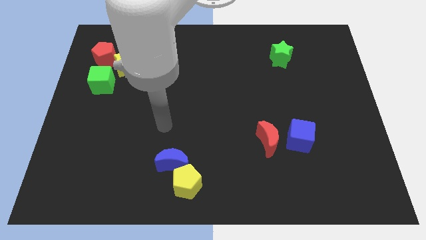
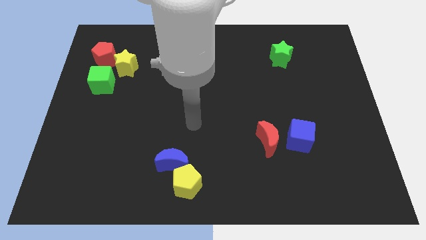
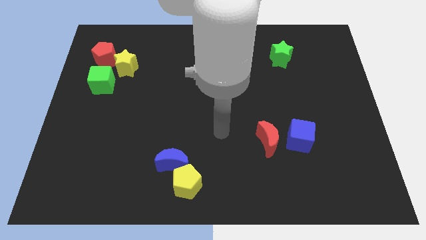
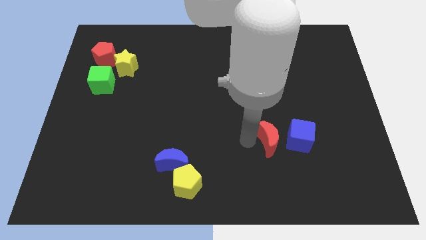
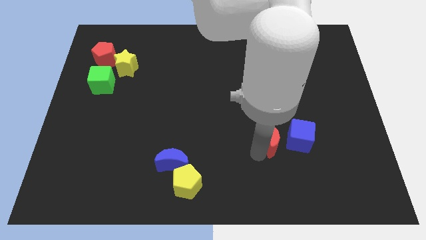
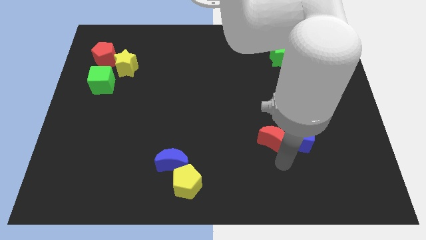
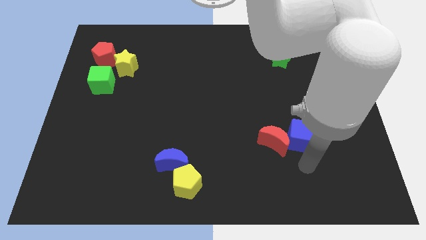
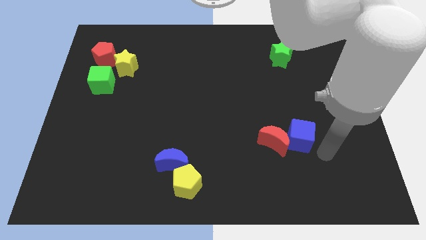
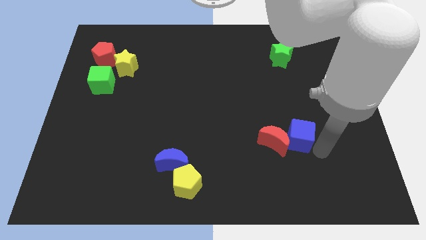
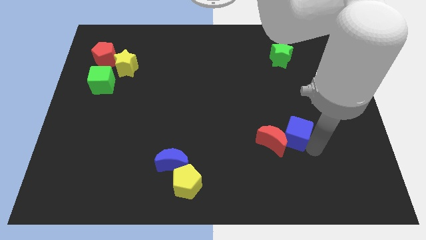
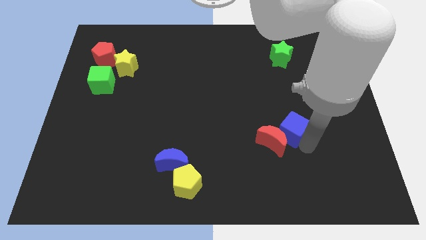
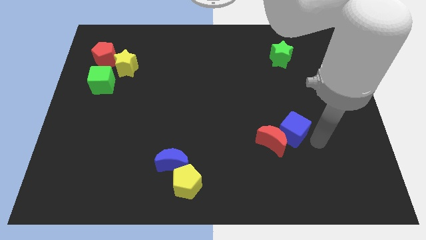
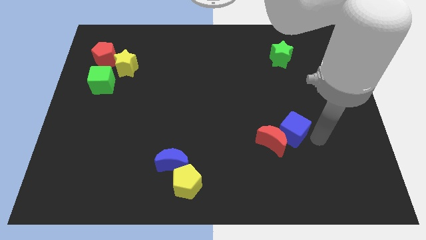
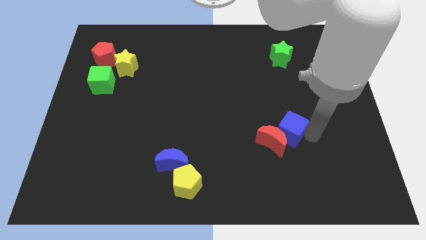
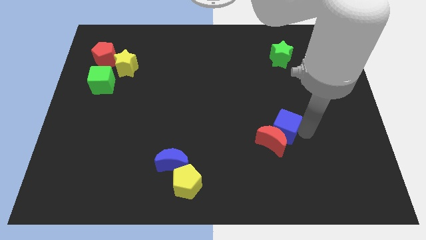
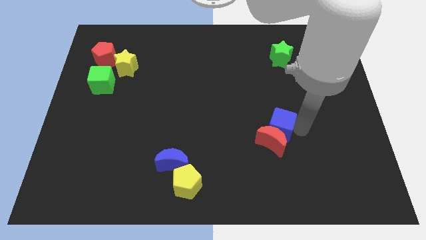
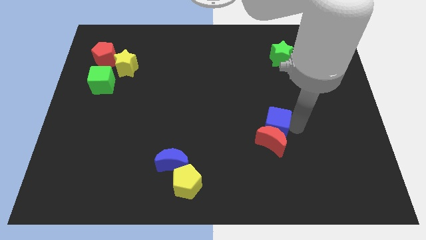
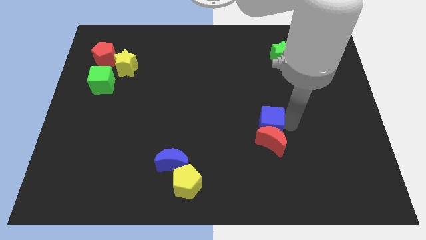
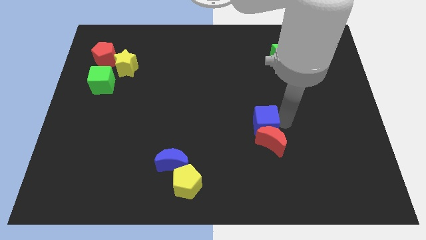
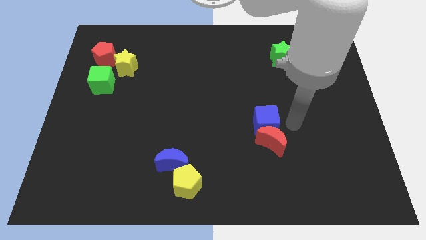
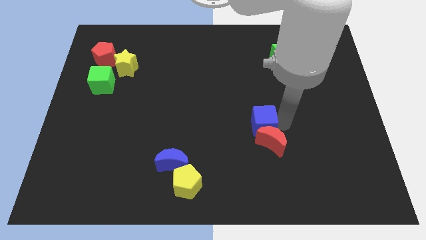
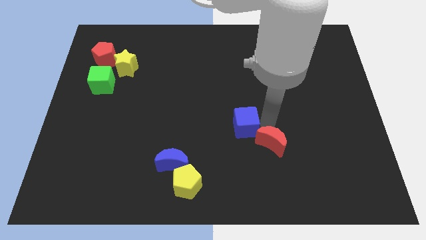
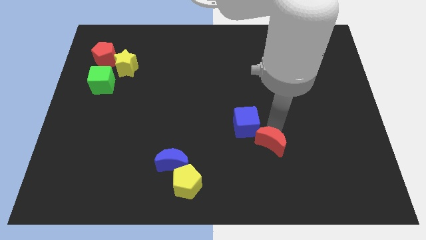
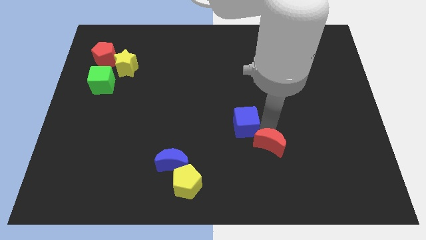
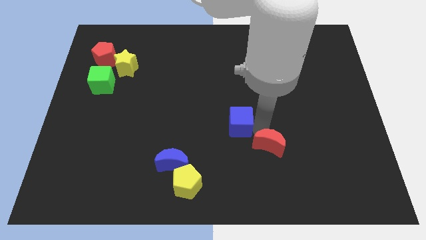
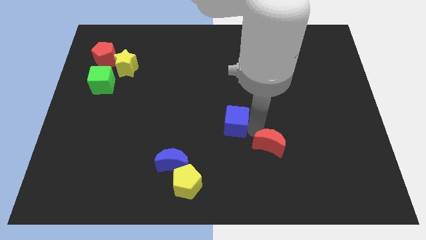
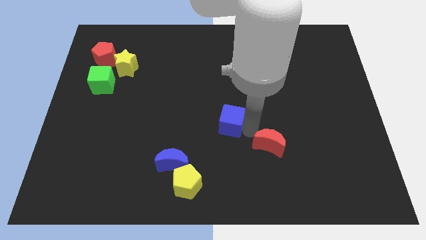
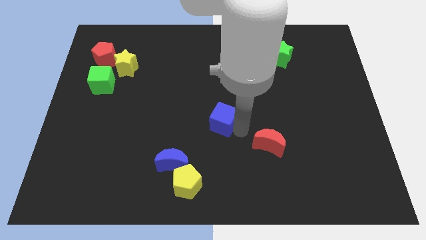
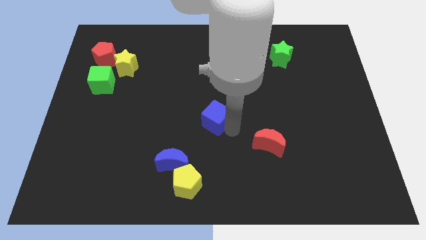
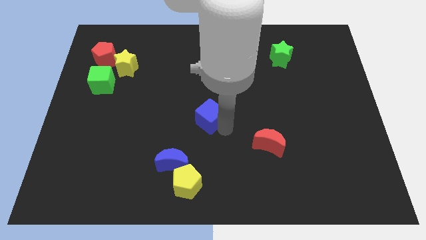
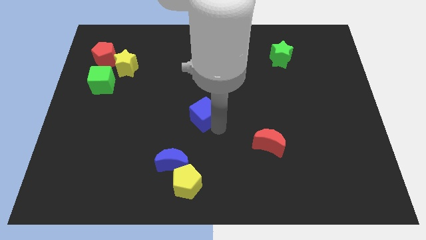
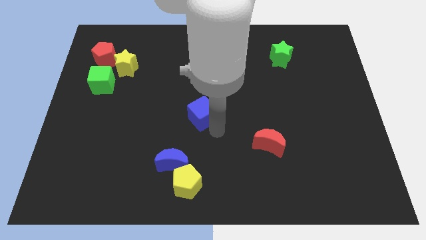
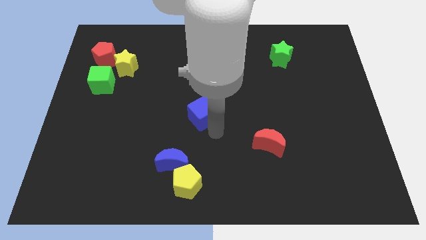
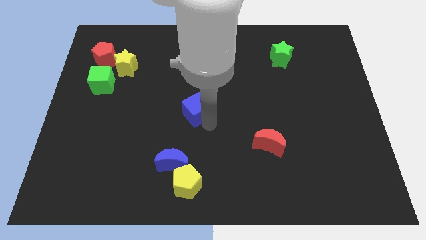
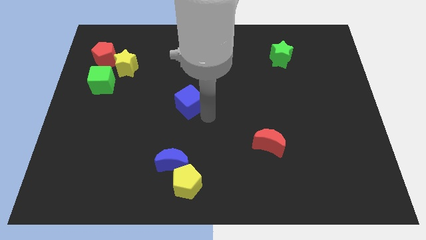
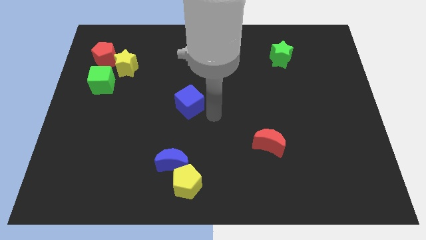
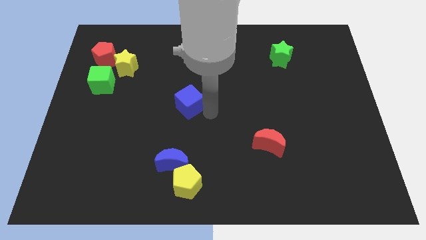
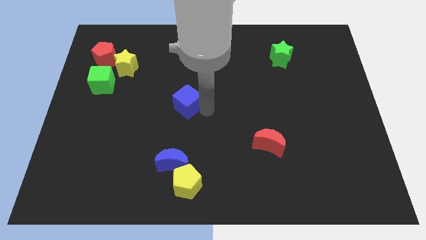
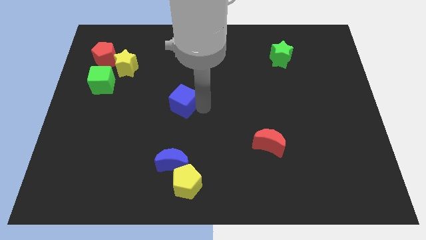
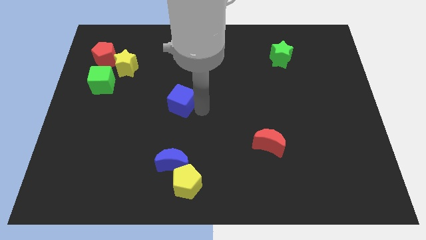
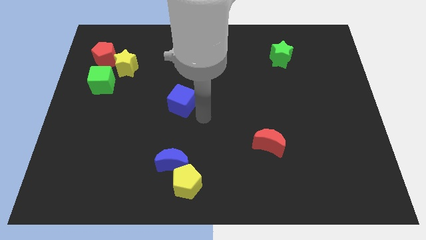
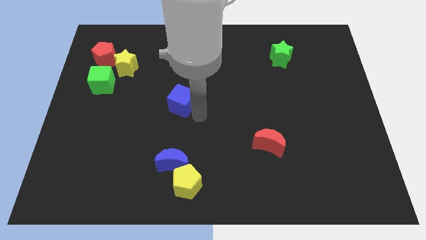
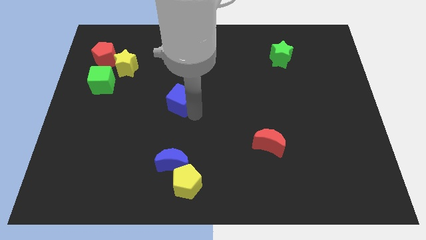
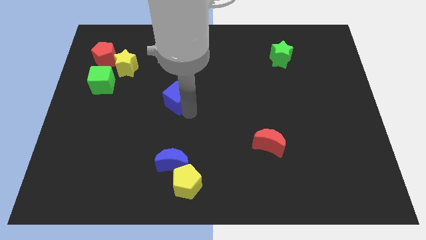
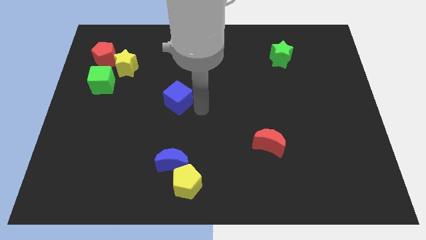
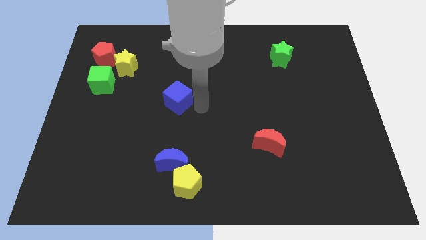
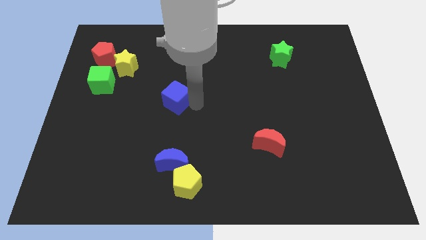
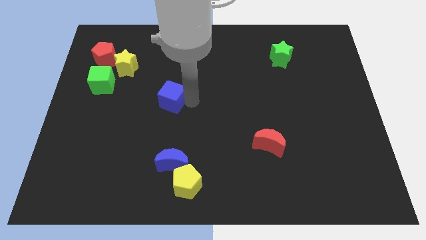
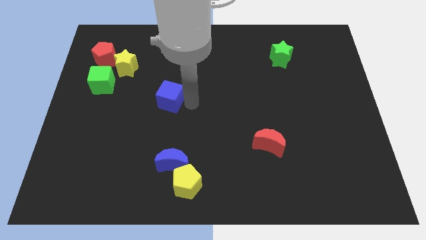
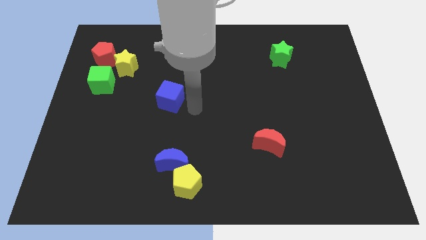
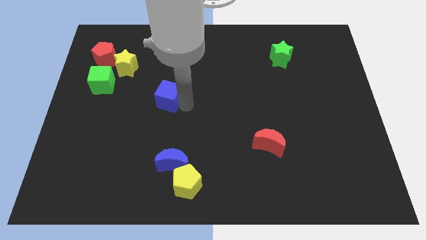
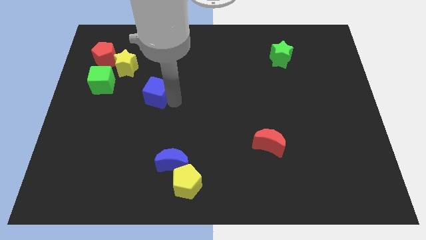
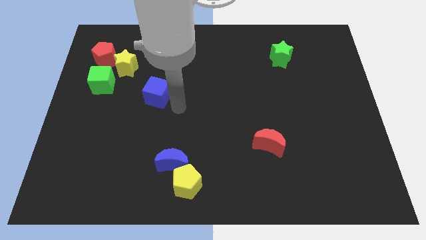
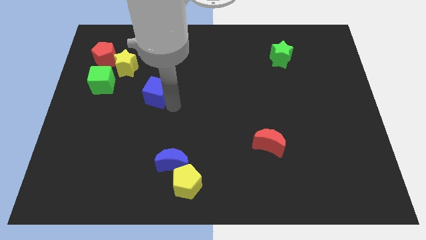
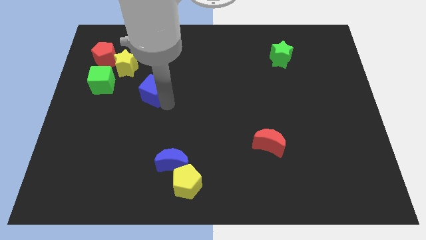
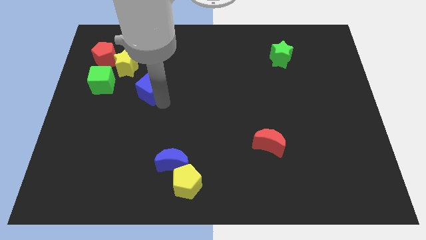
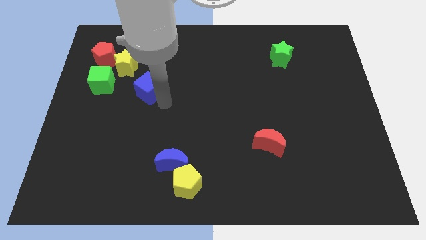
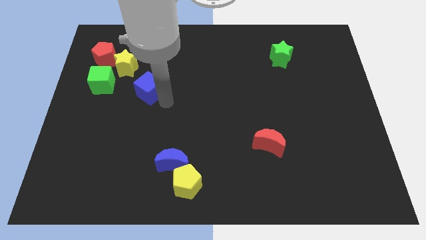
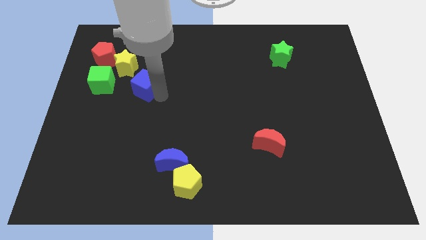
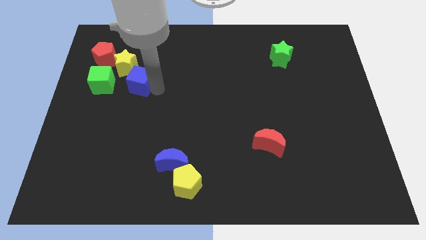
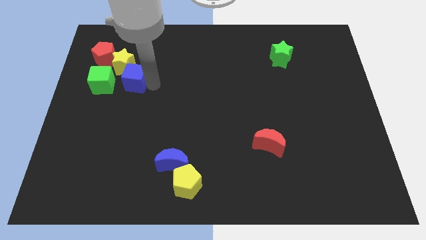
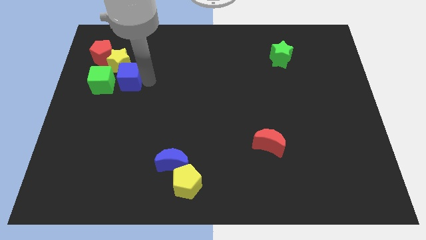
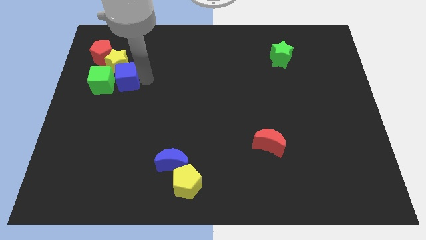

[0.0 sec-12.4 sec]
push the blue cube towards the green cube

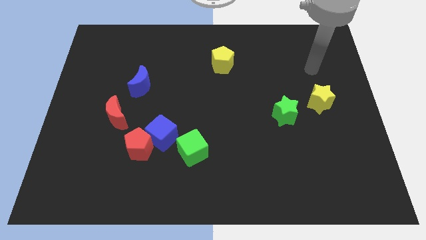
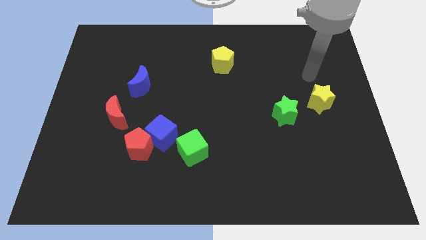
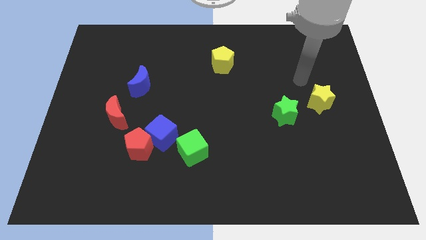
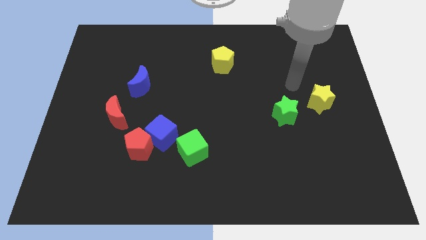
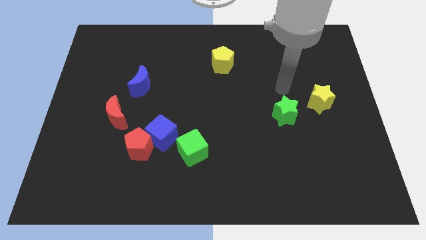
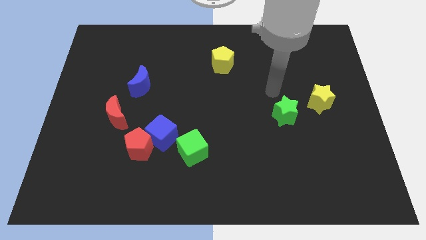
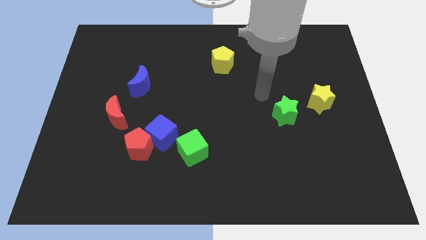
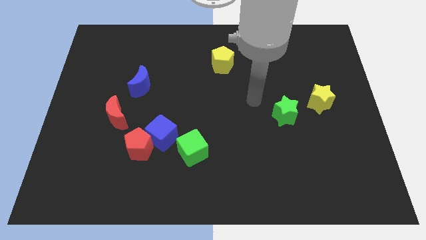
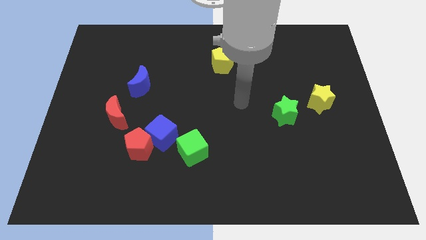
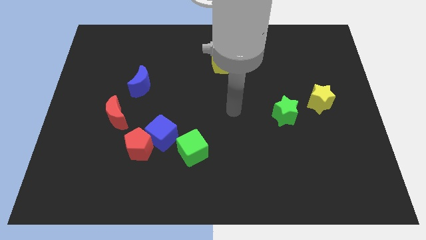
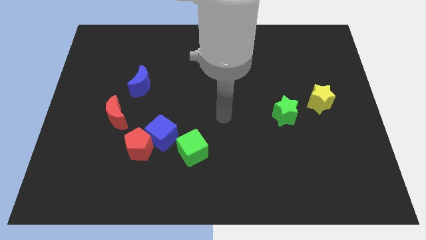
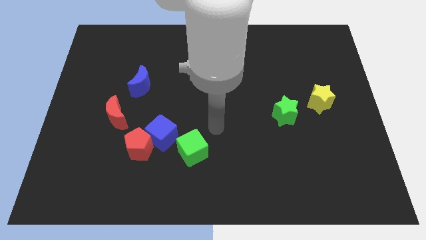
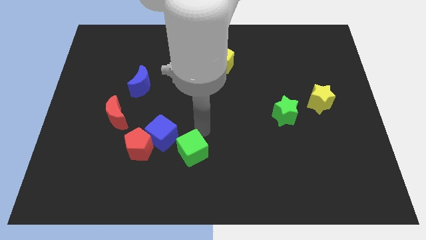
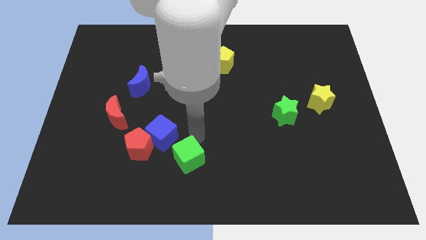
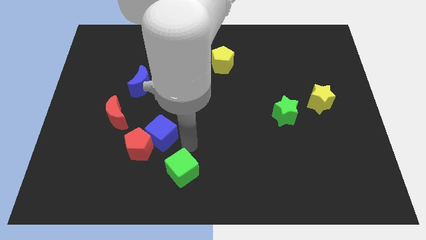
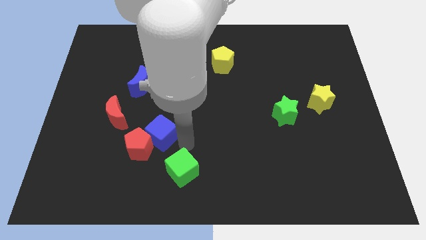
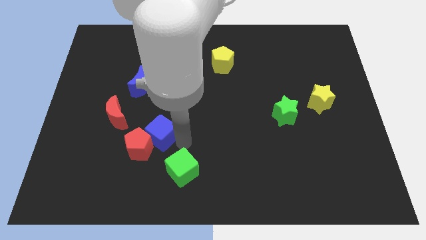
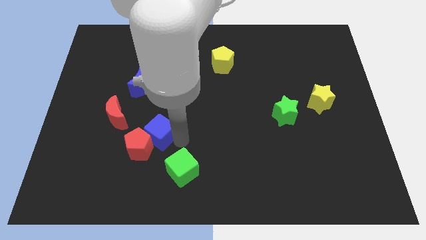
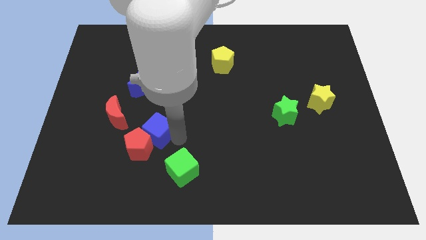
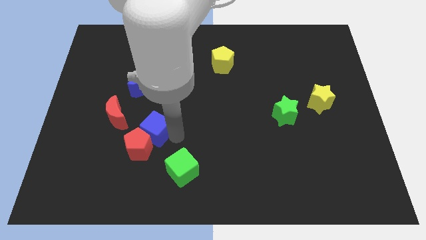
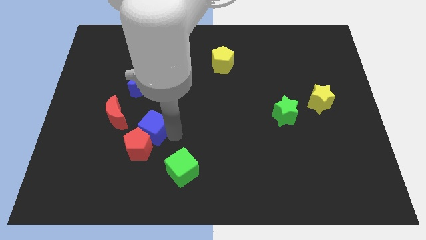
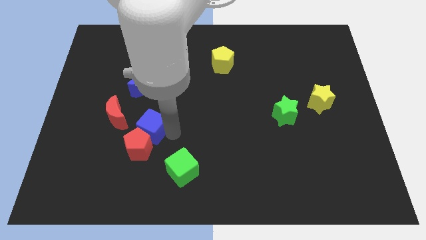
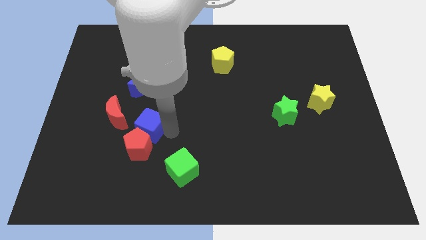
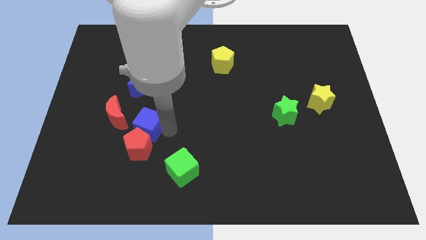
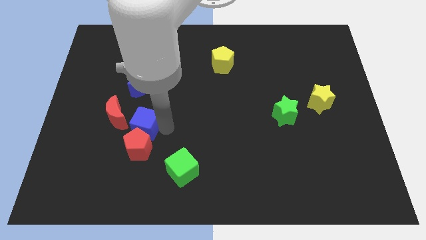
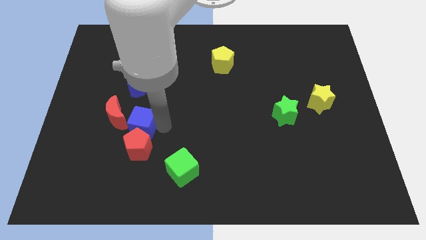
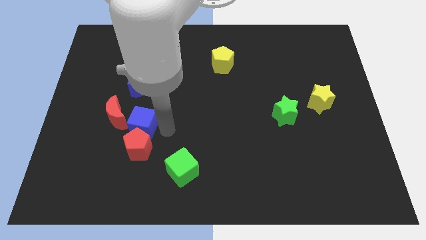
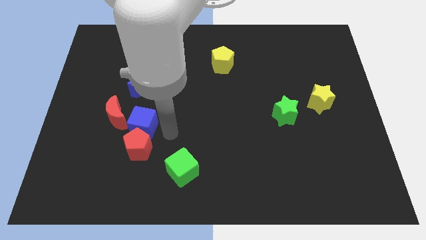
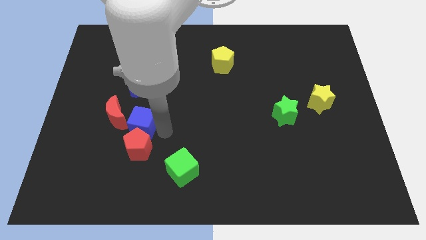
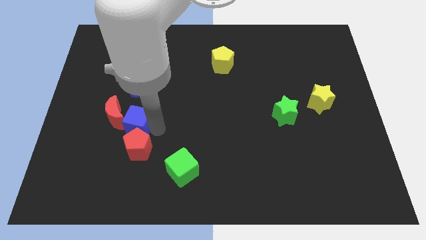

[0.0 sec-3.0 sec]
push the blue cube to the red moon
